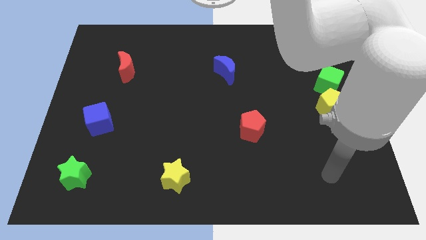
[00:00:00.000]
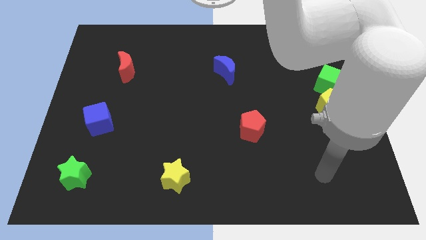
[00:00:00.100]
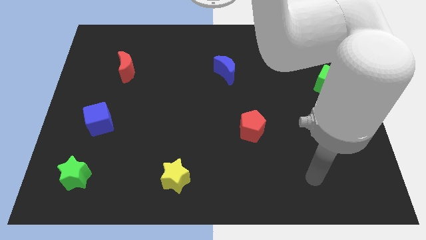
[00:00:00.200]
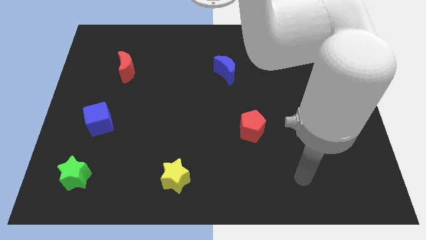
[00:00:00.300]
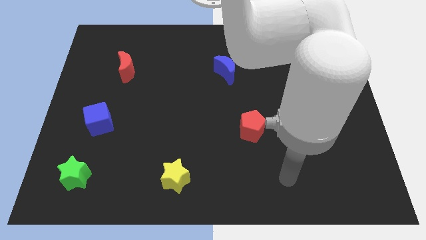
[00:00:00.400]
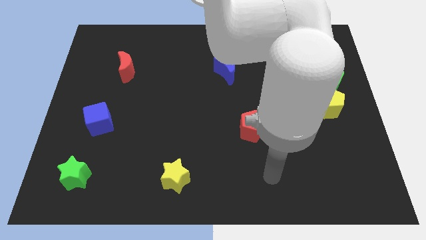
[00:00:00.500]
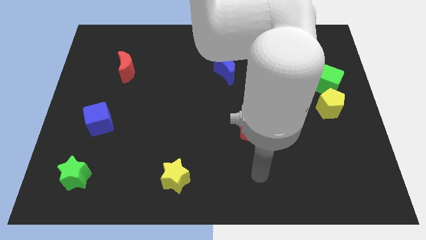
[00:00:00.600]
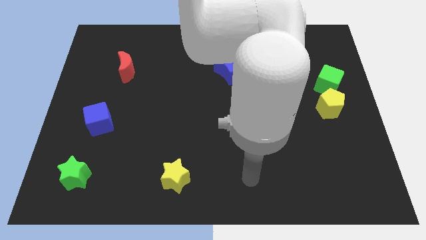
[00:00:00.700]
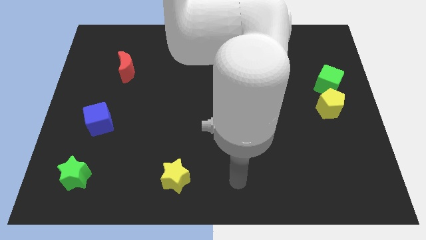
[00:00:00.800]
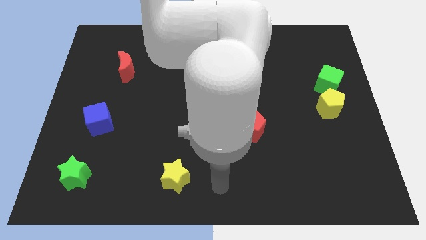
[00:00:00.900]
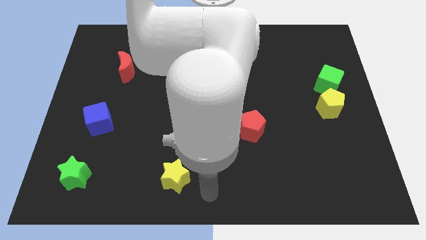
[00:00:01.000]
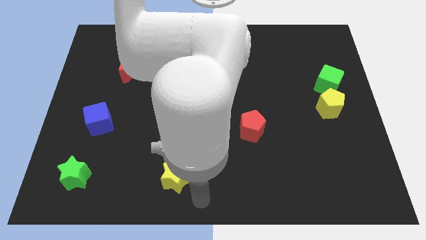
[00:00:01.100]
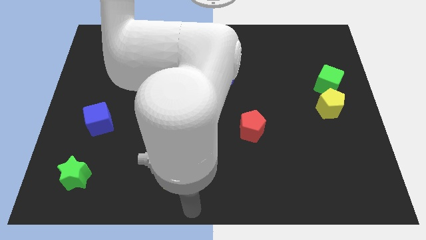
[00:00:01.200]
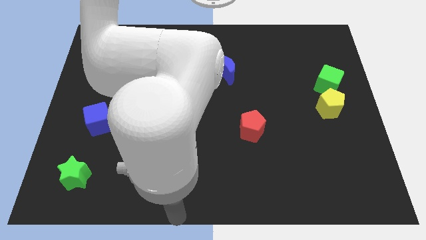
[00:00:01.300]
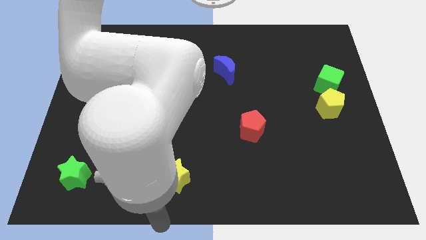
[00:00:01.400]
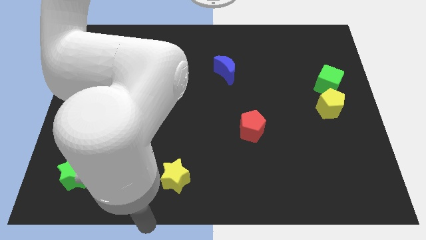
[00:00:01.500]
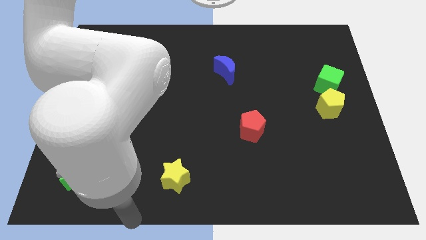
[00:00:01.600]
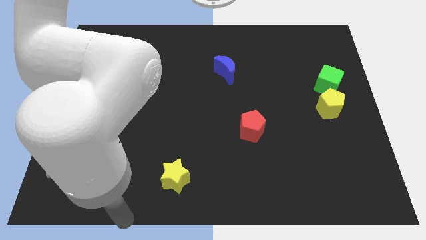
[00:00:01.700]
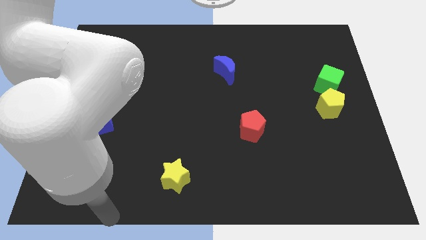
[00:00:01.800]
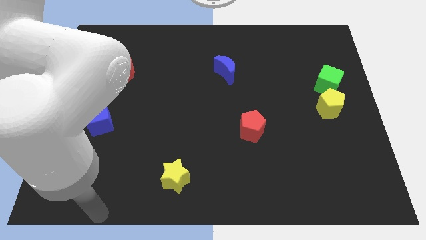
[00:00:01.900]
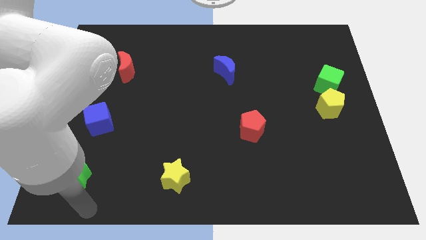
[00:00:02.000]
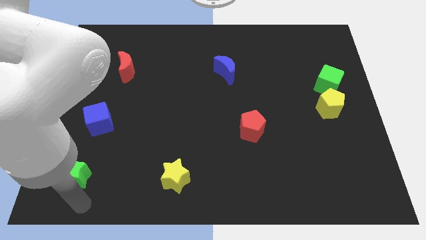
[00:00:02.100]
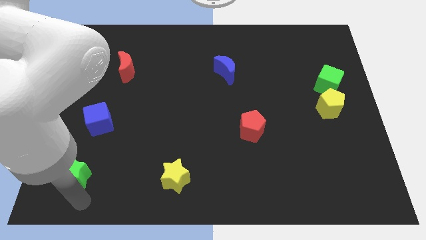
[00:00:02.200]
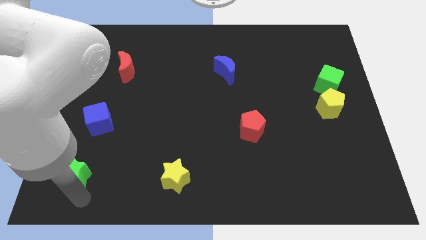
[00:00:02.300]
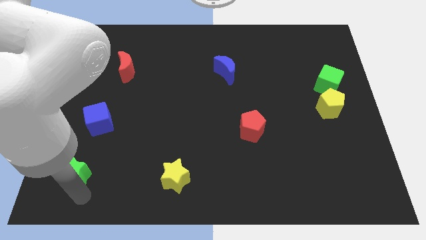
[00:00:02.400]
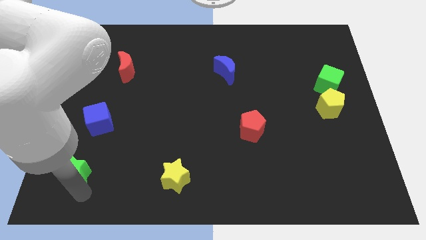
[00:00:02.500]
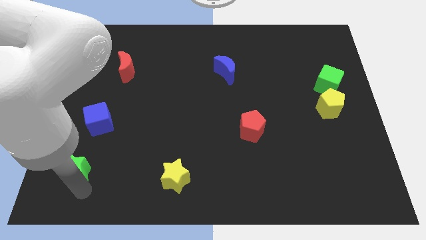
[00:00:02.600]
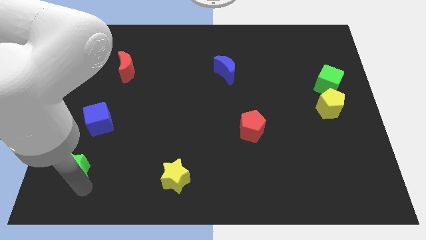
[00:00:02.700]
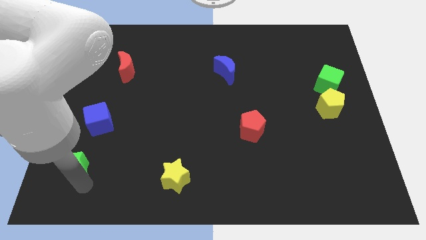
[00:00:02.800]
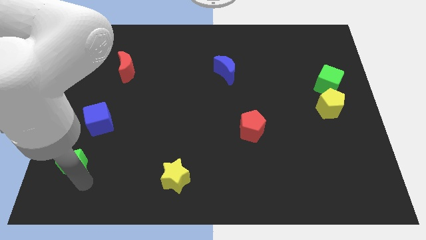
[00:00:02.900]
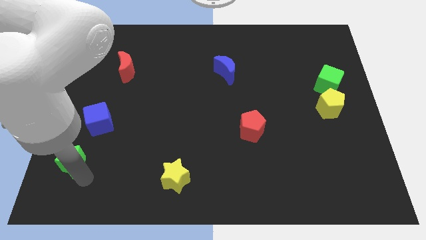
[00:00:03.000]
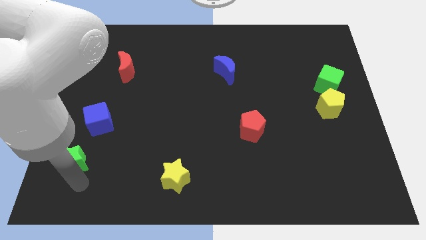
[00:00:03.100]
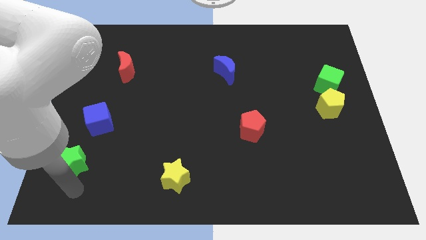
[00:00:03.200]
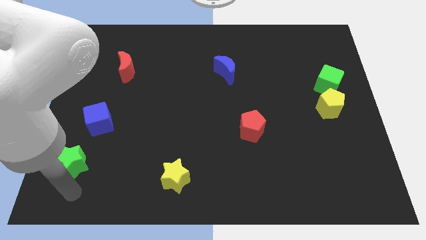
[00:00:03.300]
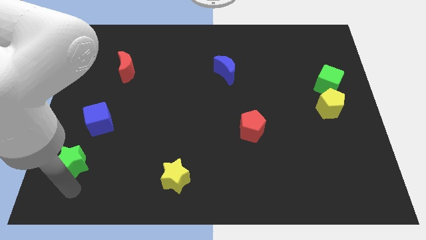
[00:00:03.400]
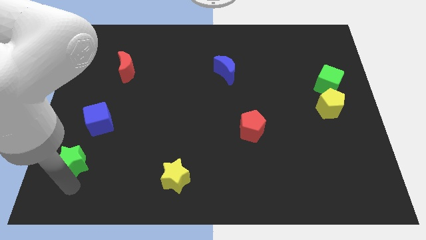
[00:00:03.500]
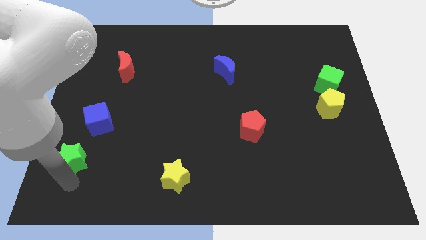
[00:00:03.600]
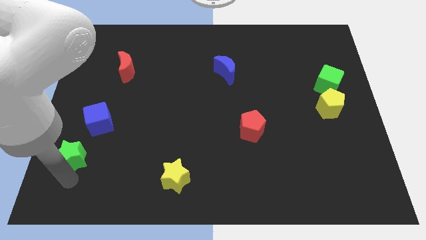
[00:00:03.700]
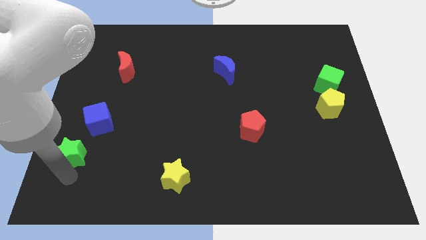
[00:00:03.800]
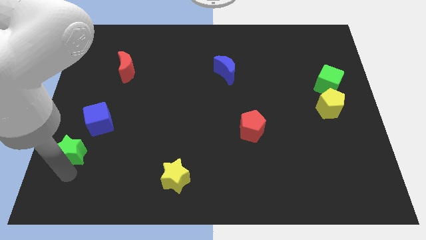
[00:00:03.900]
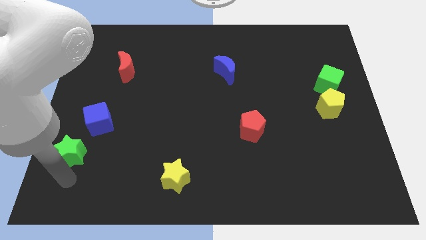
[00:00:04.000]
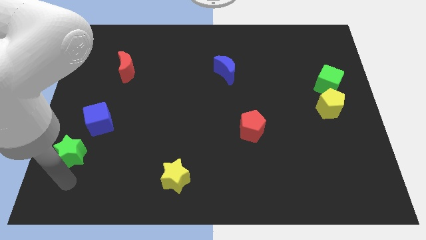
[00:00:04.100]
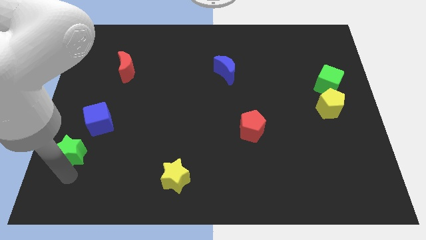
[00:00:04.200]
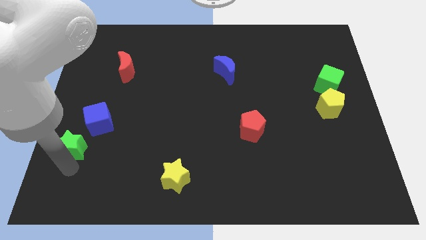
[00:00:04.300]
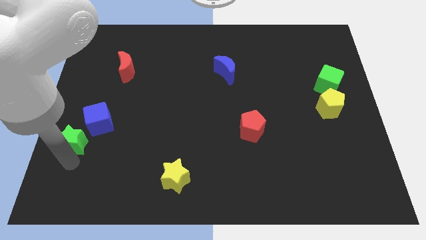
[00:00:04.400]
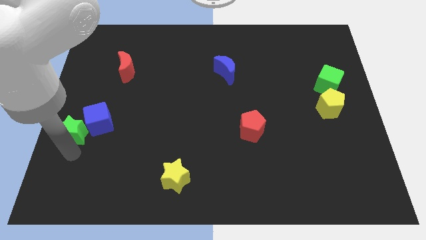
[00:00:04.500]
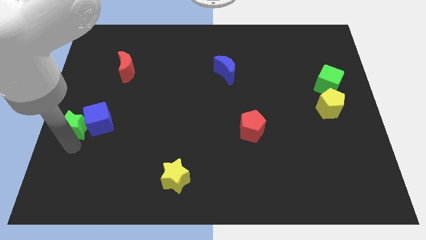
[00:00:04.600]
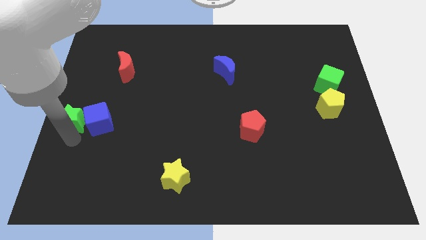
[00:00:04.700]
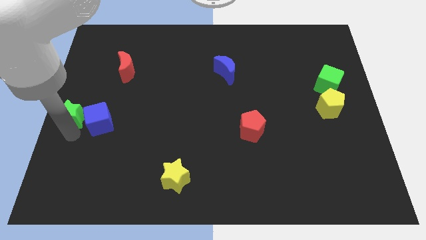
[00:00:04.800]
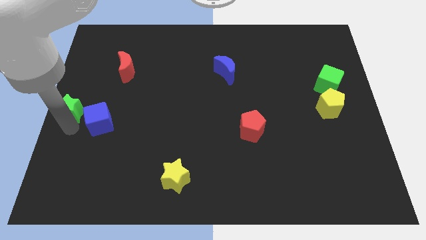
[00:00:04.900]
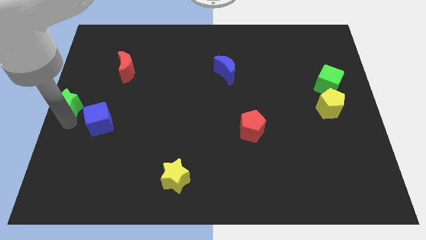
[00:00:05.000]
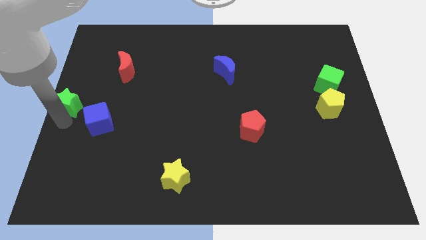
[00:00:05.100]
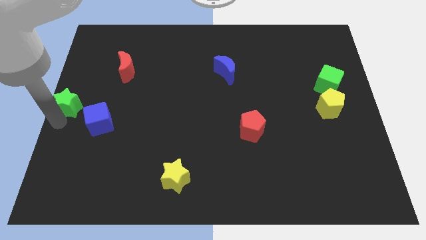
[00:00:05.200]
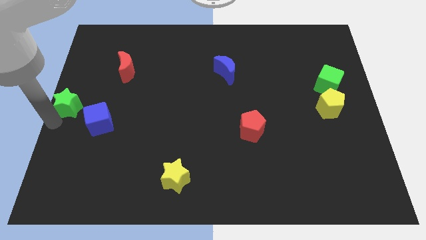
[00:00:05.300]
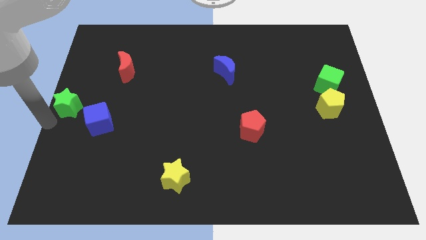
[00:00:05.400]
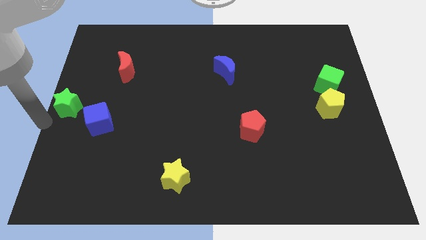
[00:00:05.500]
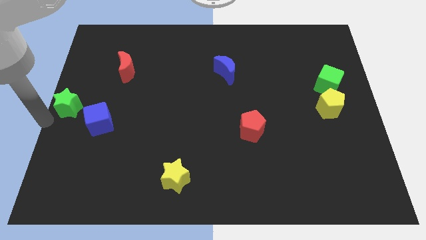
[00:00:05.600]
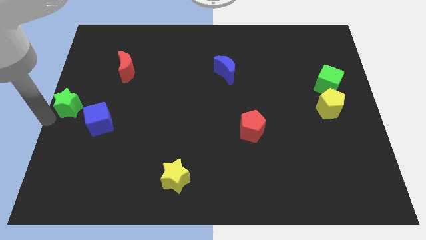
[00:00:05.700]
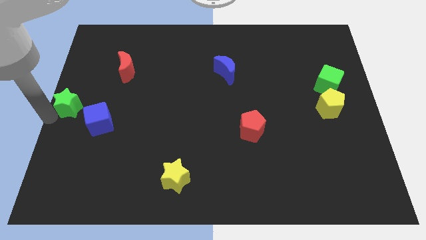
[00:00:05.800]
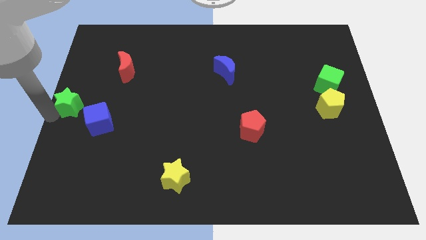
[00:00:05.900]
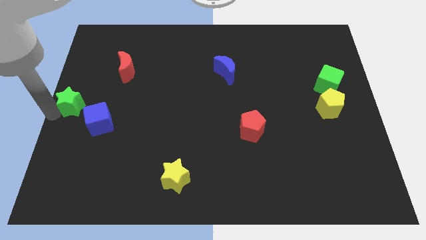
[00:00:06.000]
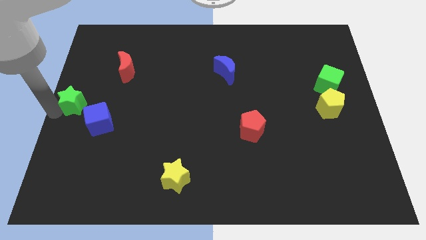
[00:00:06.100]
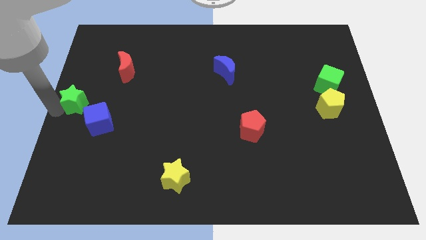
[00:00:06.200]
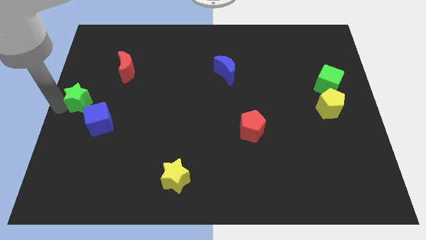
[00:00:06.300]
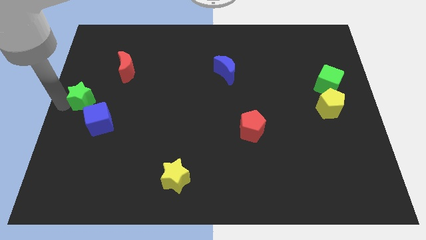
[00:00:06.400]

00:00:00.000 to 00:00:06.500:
move the green star up

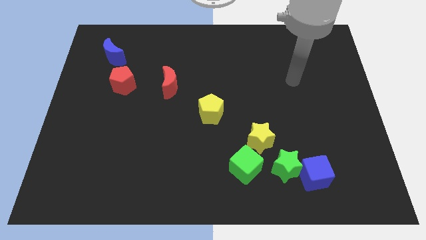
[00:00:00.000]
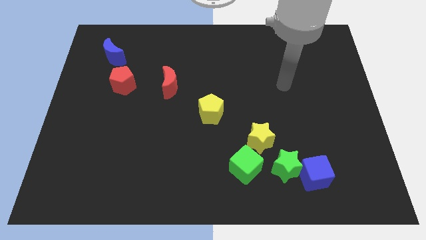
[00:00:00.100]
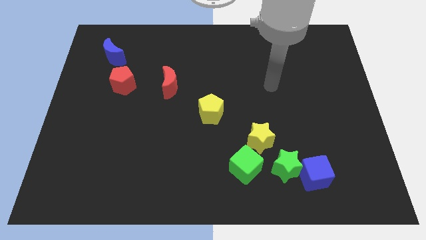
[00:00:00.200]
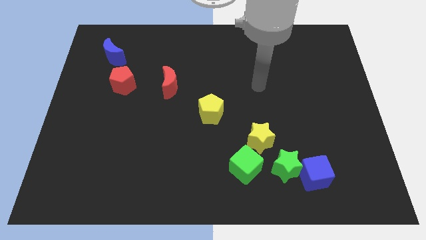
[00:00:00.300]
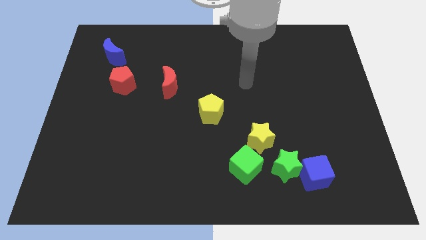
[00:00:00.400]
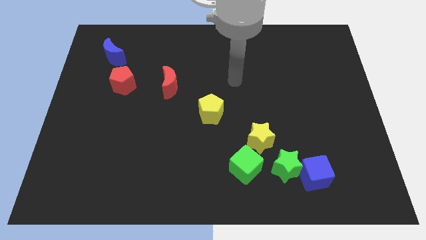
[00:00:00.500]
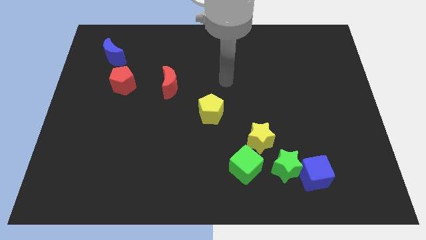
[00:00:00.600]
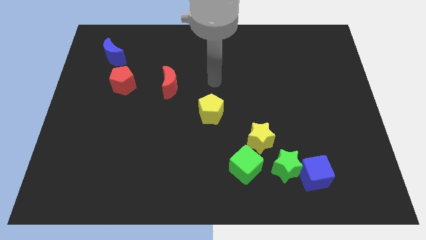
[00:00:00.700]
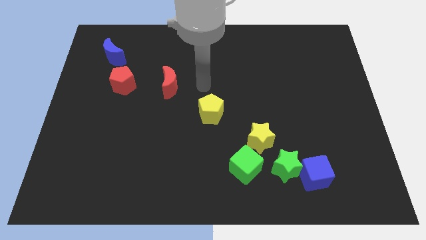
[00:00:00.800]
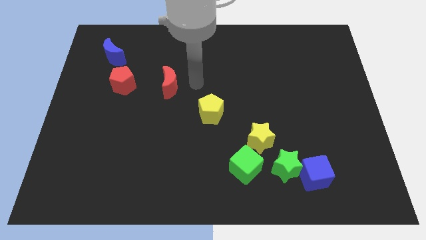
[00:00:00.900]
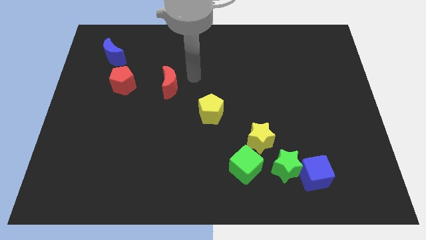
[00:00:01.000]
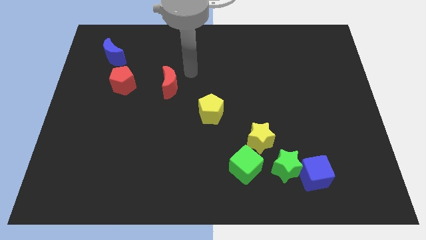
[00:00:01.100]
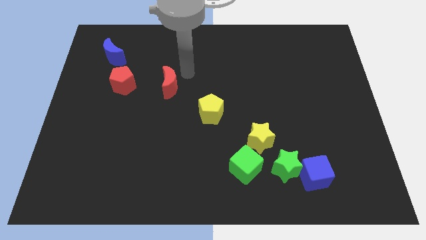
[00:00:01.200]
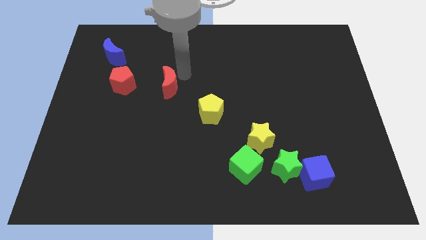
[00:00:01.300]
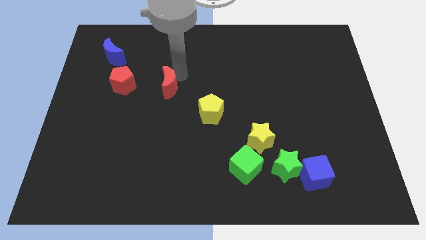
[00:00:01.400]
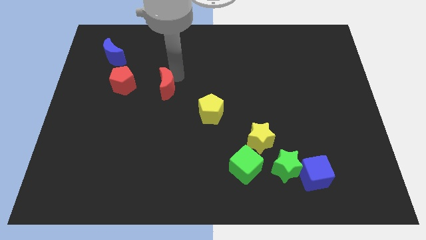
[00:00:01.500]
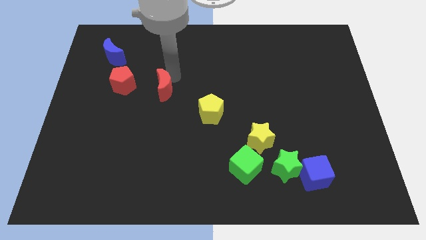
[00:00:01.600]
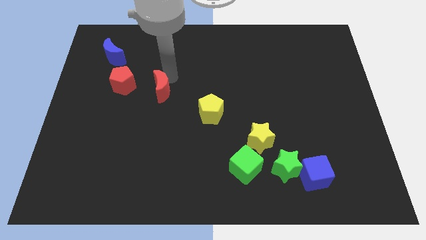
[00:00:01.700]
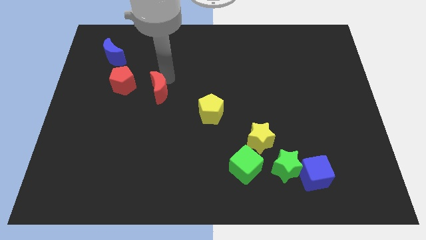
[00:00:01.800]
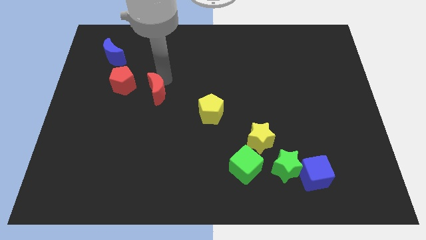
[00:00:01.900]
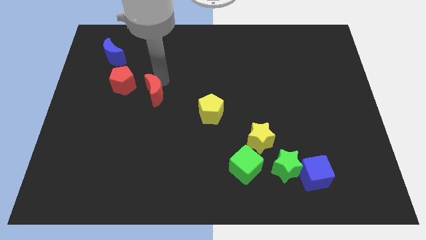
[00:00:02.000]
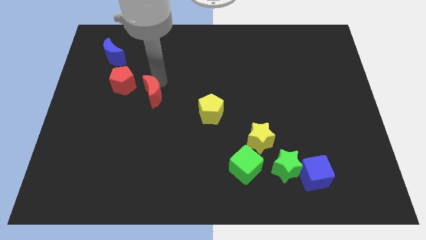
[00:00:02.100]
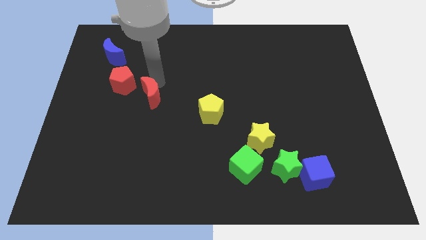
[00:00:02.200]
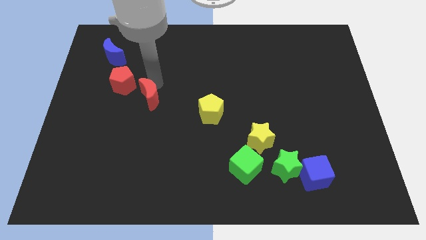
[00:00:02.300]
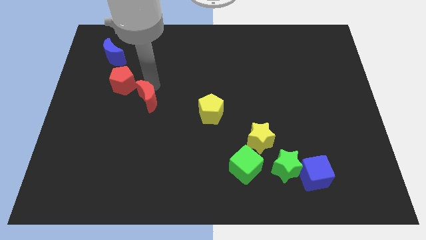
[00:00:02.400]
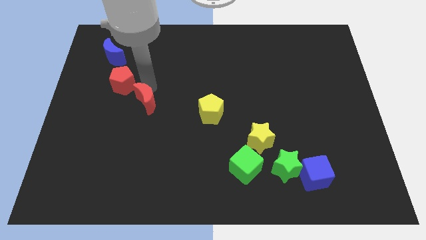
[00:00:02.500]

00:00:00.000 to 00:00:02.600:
move the red moon a bit downwards and left
